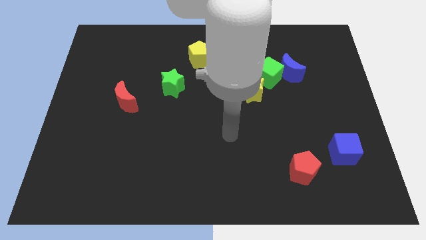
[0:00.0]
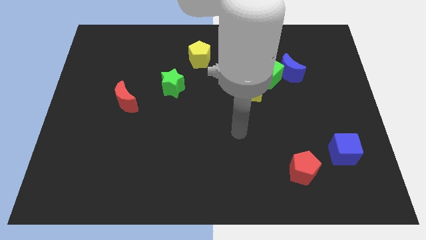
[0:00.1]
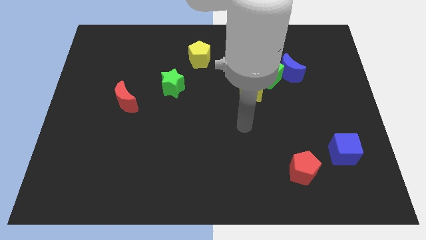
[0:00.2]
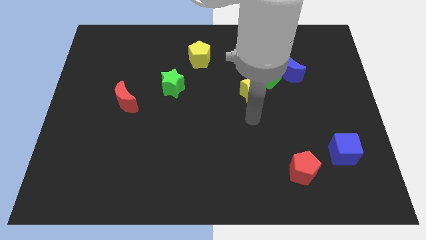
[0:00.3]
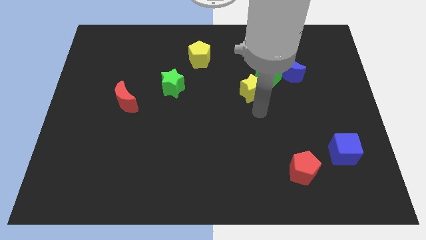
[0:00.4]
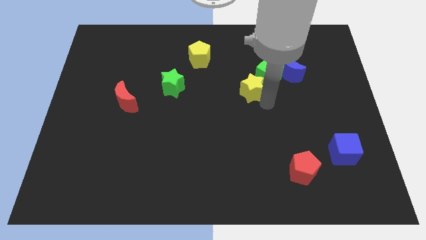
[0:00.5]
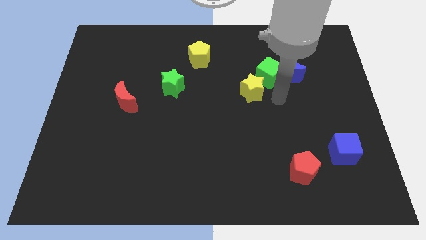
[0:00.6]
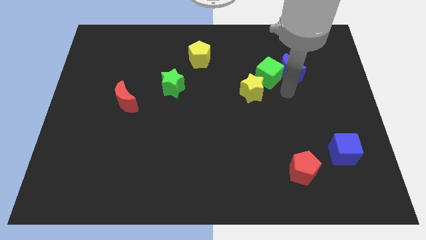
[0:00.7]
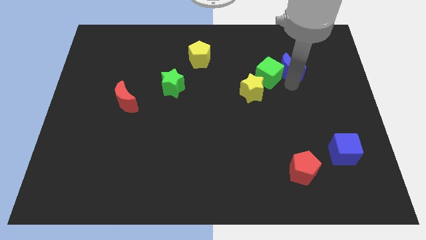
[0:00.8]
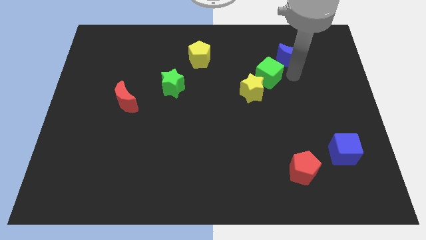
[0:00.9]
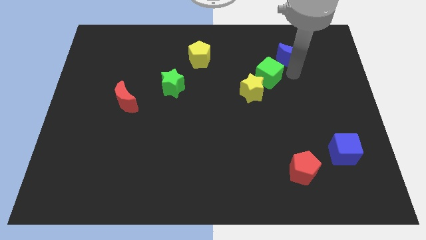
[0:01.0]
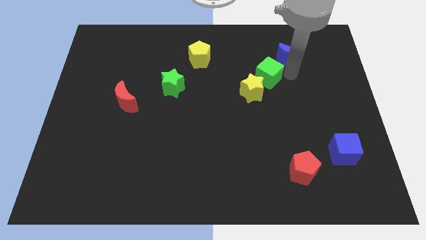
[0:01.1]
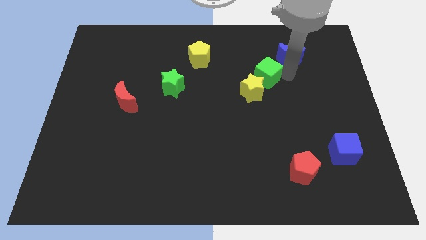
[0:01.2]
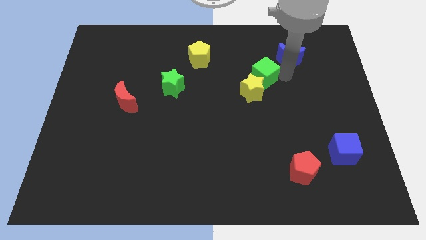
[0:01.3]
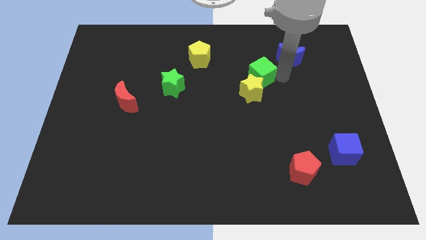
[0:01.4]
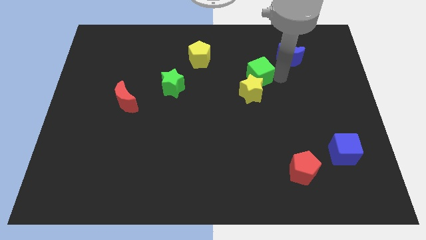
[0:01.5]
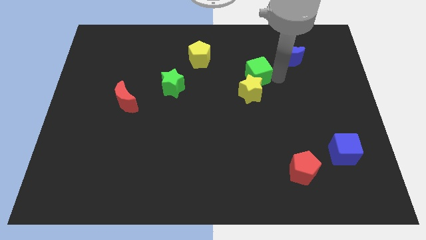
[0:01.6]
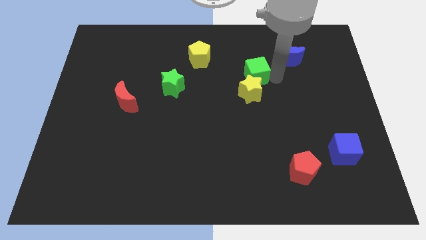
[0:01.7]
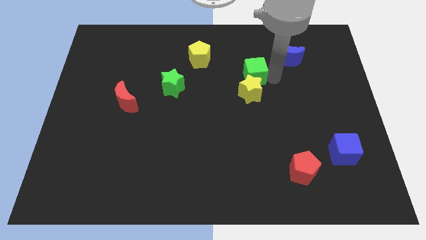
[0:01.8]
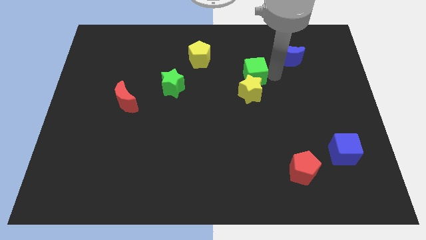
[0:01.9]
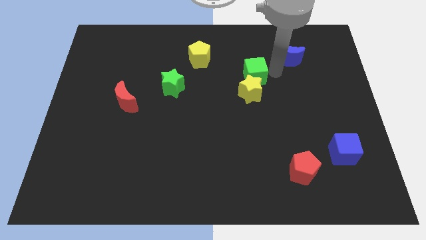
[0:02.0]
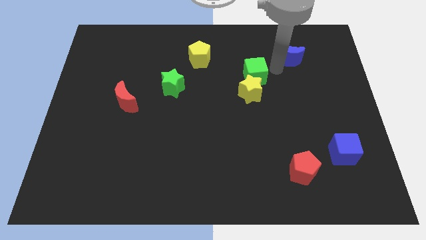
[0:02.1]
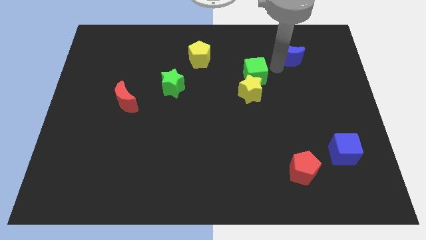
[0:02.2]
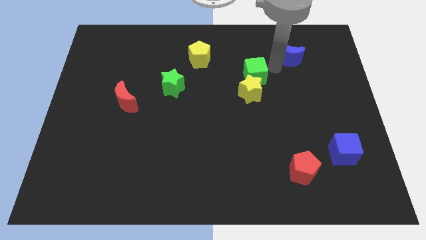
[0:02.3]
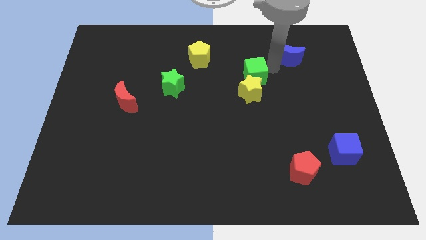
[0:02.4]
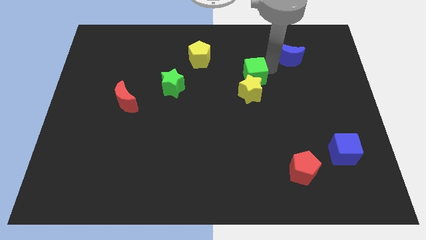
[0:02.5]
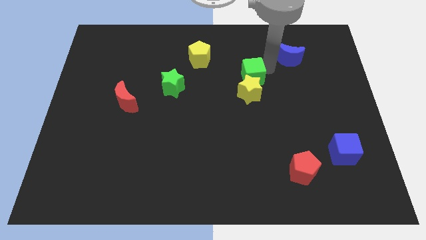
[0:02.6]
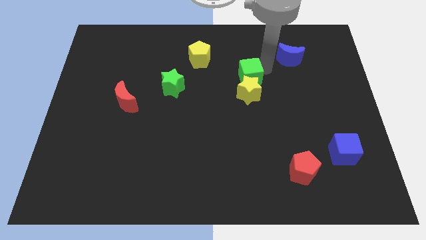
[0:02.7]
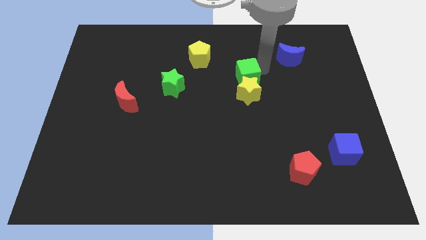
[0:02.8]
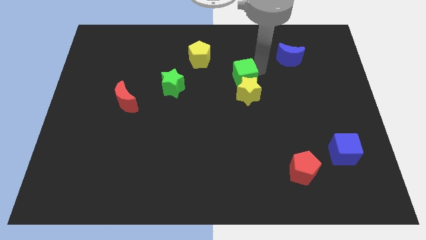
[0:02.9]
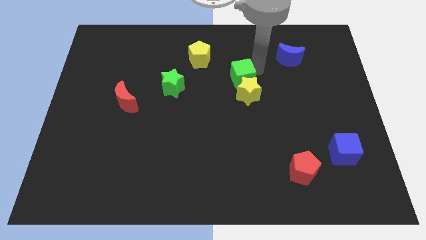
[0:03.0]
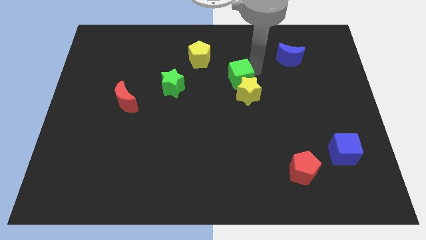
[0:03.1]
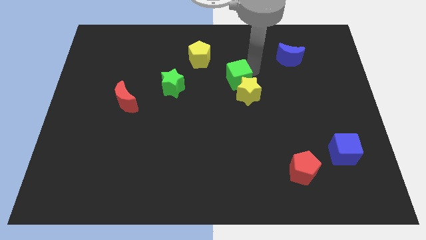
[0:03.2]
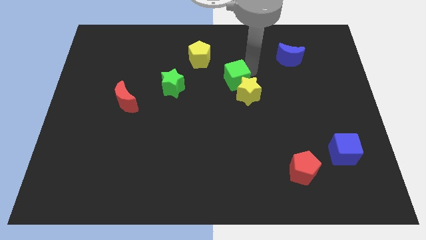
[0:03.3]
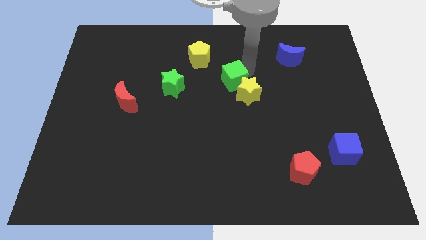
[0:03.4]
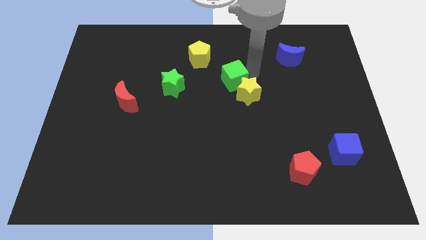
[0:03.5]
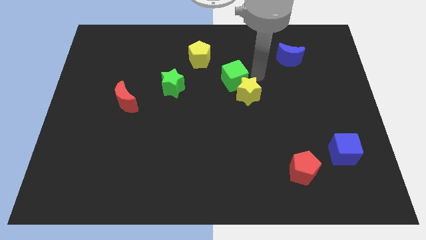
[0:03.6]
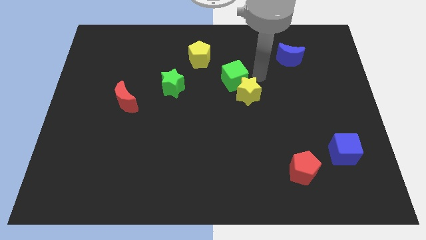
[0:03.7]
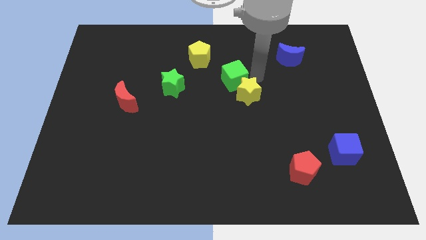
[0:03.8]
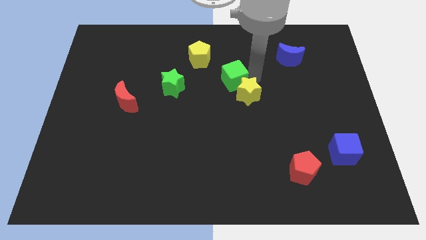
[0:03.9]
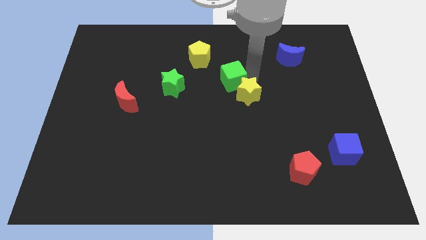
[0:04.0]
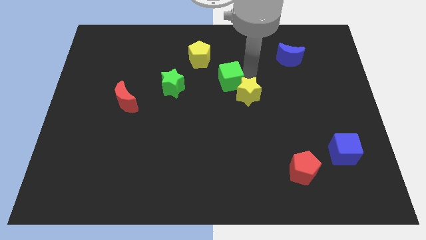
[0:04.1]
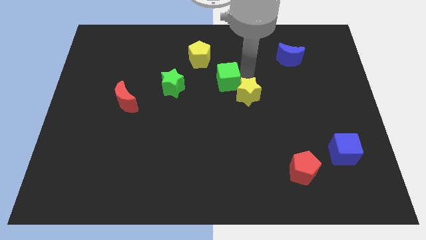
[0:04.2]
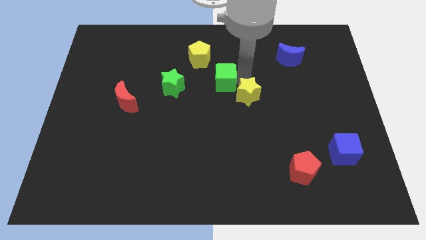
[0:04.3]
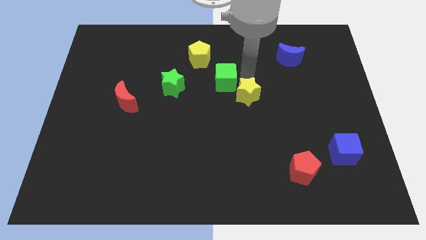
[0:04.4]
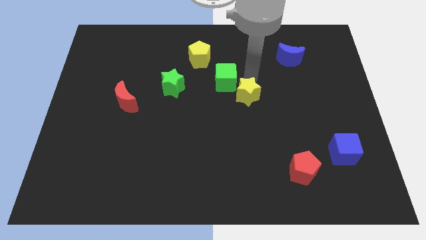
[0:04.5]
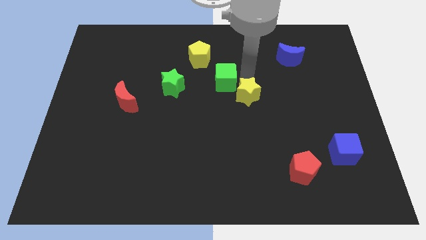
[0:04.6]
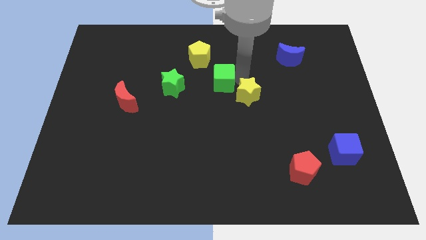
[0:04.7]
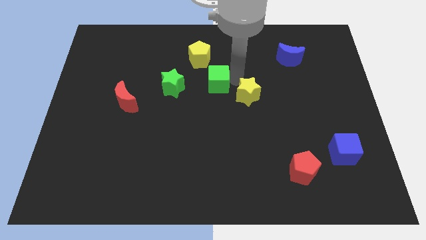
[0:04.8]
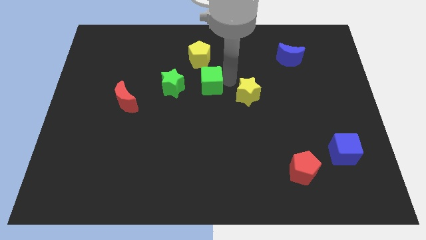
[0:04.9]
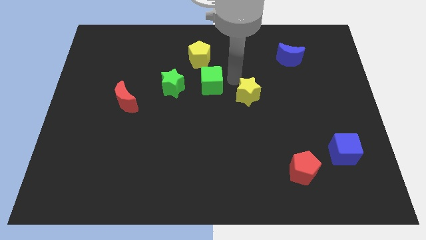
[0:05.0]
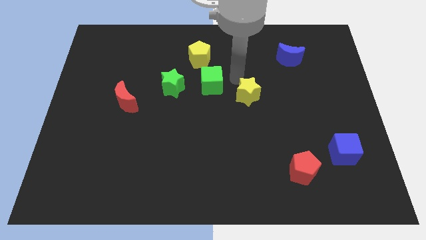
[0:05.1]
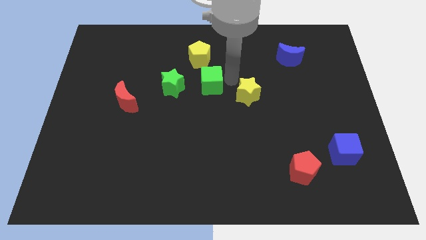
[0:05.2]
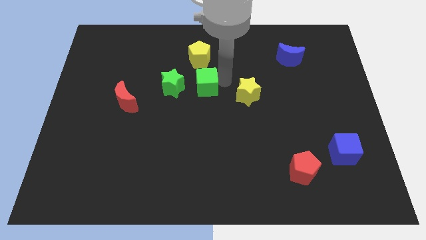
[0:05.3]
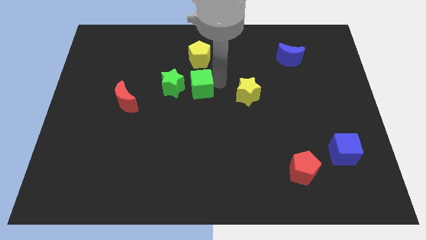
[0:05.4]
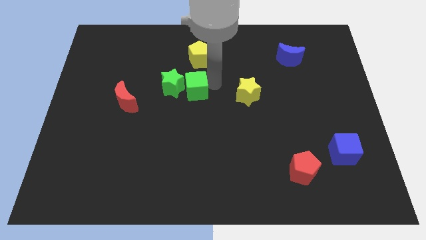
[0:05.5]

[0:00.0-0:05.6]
push the green cube to the green star
